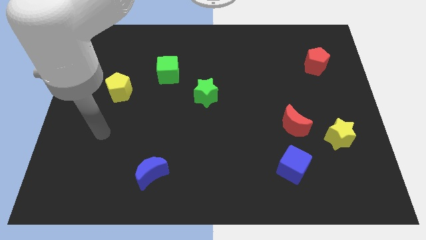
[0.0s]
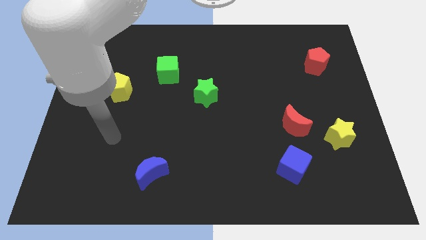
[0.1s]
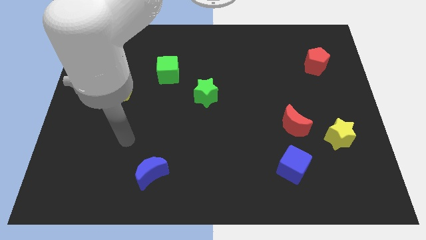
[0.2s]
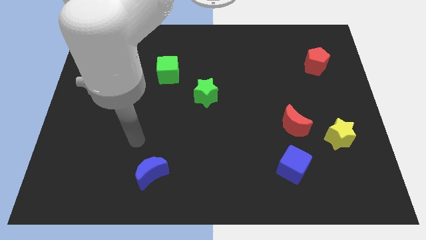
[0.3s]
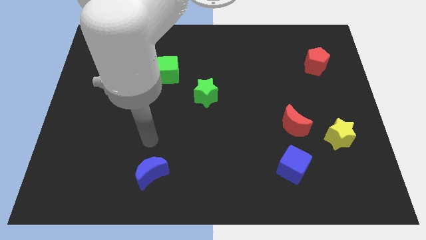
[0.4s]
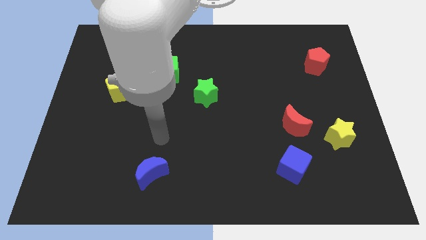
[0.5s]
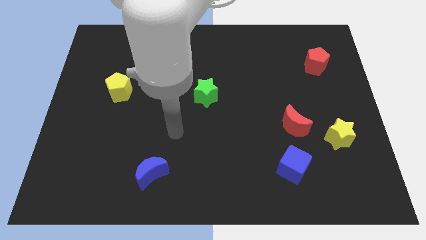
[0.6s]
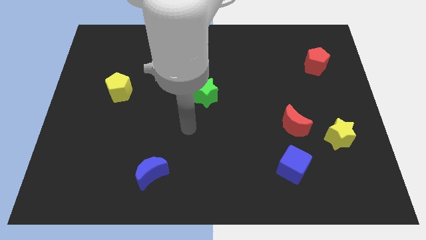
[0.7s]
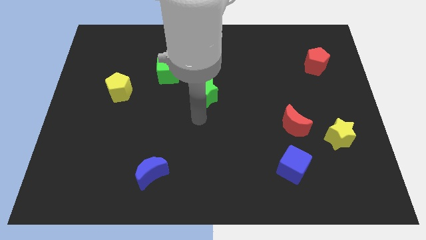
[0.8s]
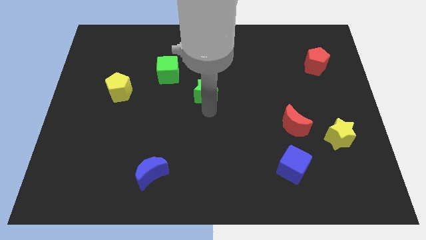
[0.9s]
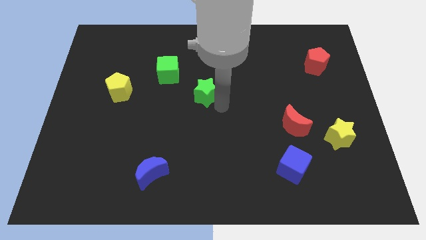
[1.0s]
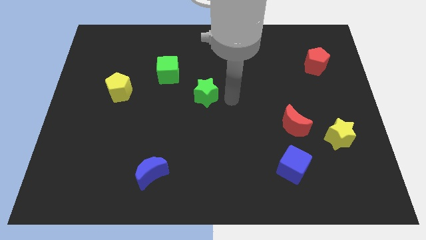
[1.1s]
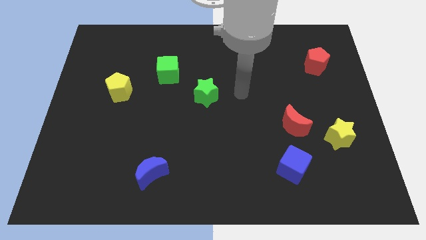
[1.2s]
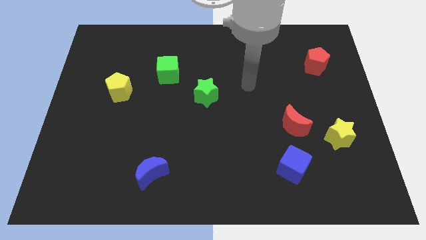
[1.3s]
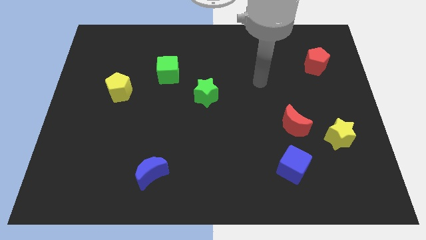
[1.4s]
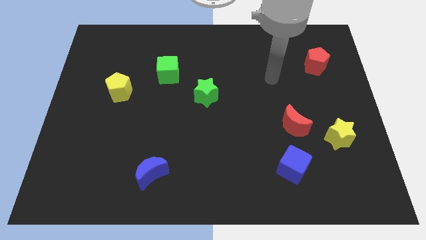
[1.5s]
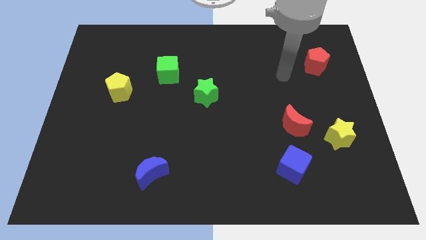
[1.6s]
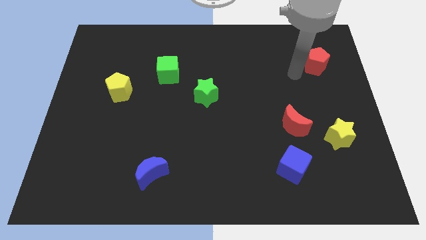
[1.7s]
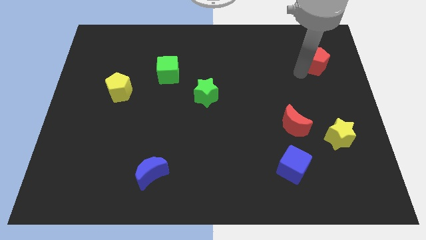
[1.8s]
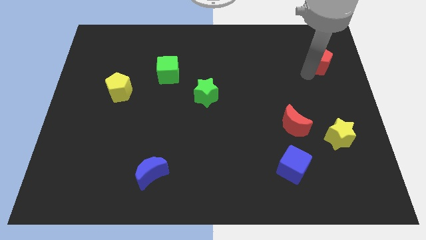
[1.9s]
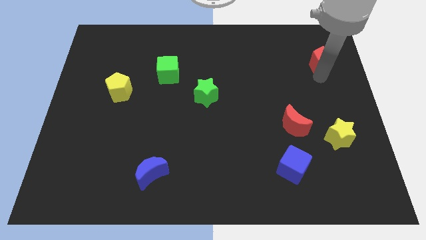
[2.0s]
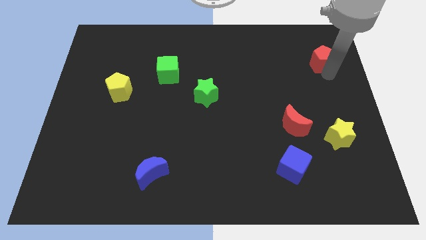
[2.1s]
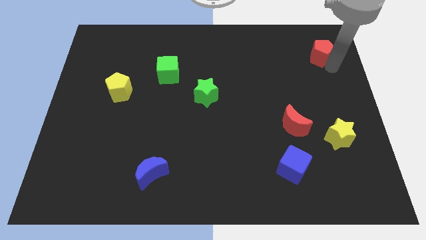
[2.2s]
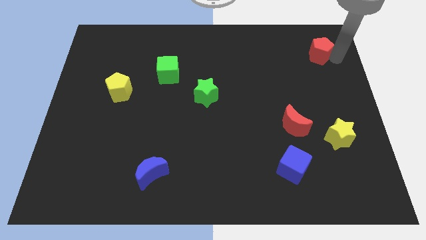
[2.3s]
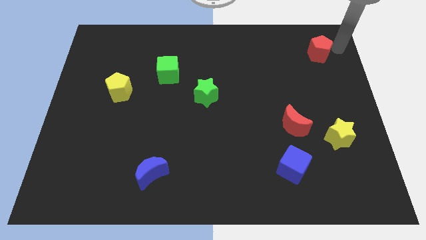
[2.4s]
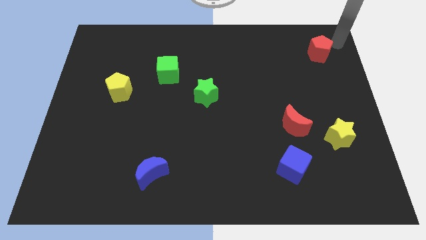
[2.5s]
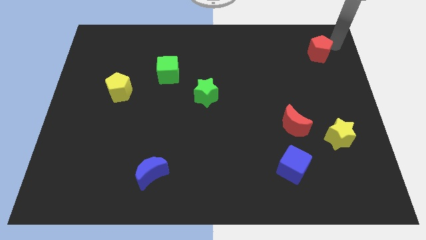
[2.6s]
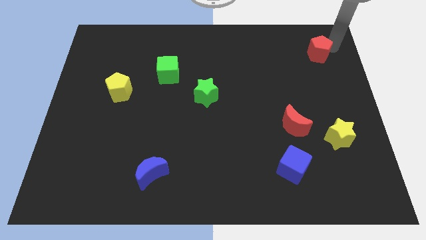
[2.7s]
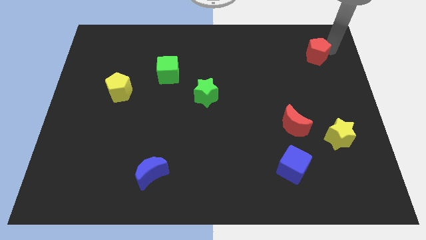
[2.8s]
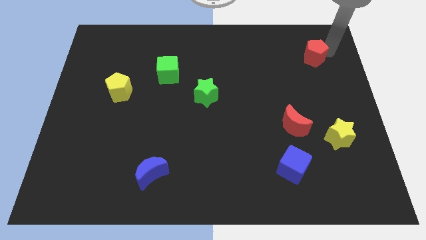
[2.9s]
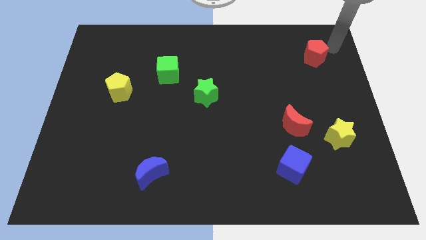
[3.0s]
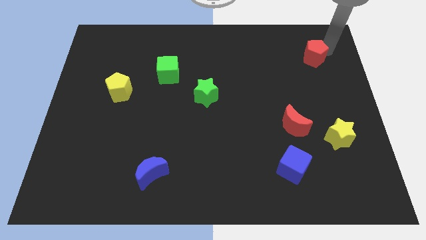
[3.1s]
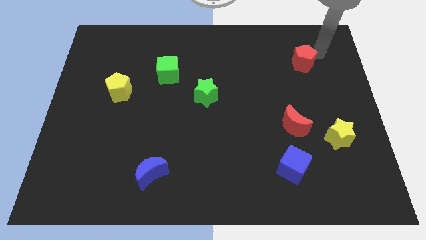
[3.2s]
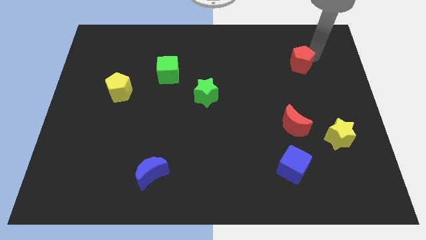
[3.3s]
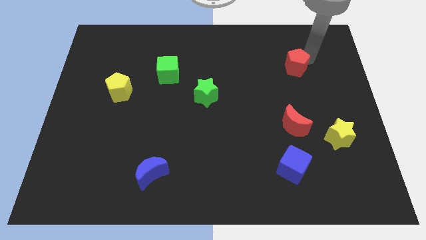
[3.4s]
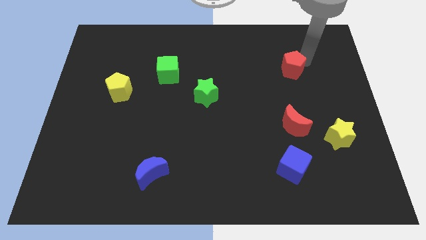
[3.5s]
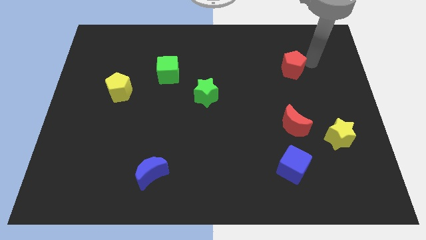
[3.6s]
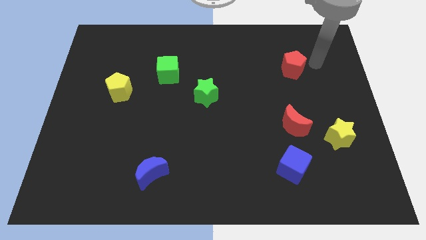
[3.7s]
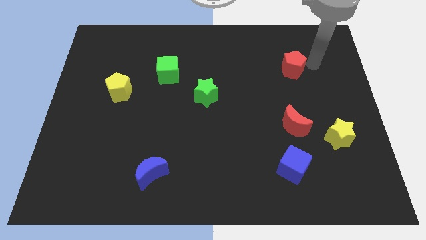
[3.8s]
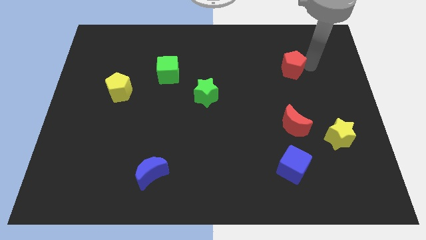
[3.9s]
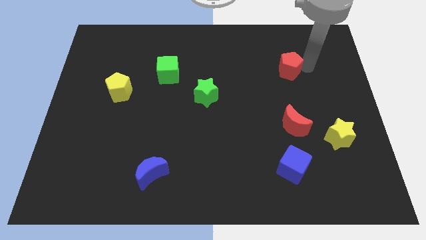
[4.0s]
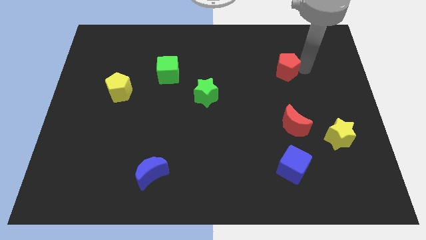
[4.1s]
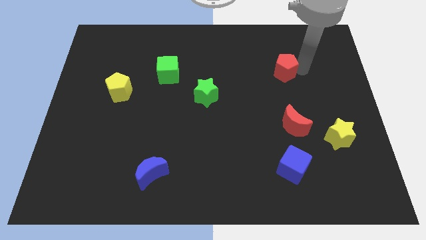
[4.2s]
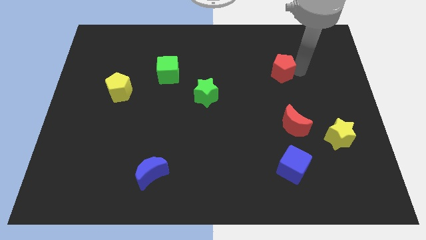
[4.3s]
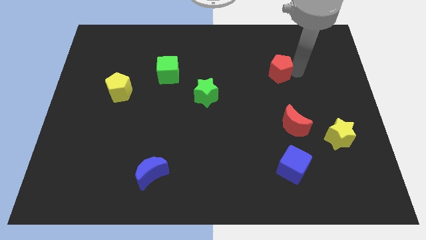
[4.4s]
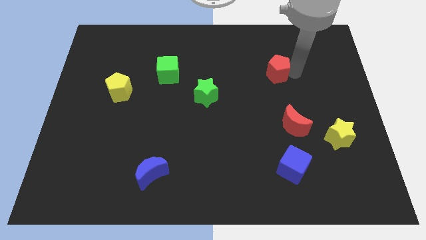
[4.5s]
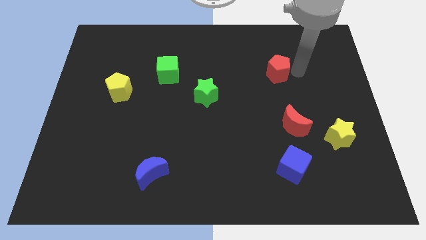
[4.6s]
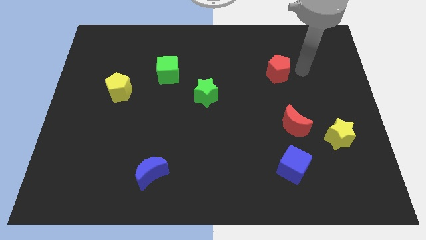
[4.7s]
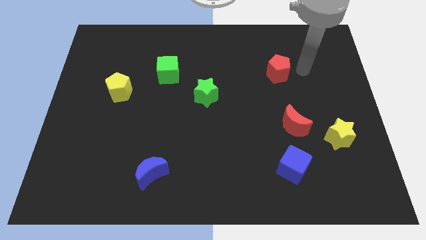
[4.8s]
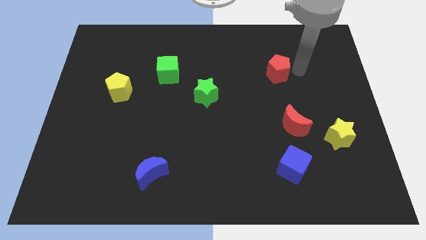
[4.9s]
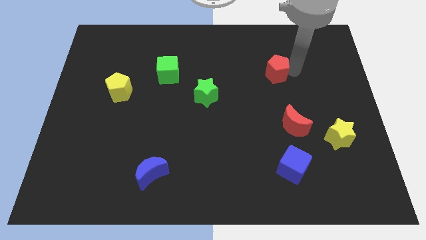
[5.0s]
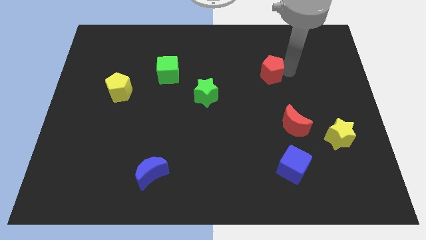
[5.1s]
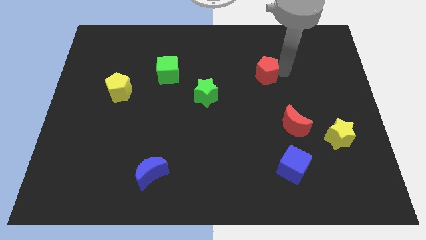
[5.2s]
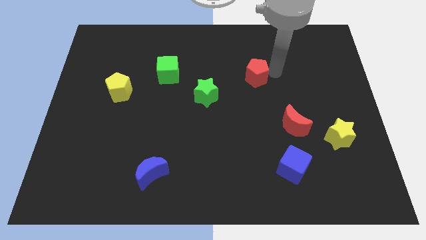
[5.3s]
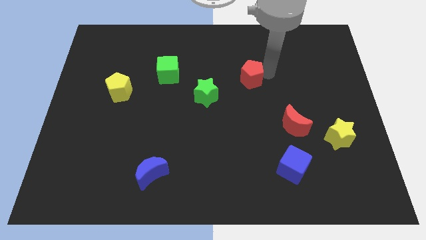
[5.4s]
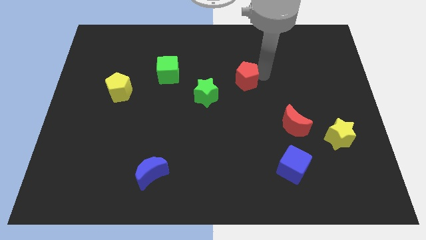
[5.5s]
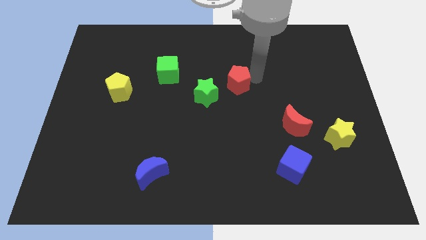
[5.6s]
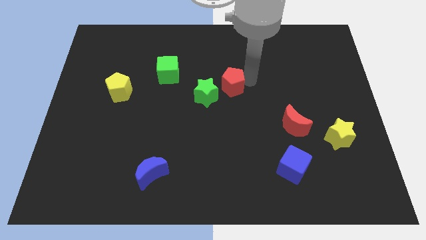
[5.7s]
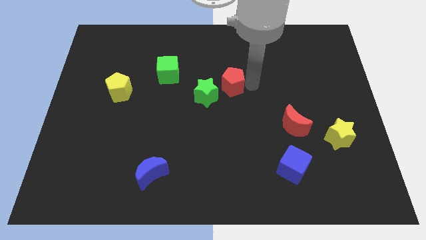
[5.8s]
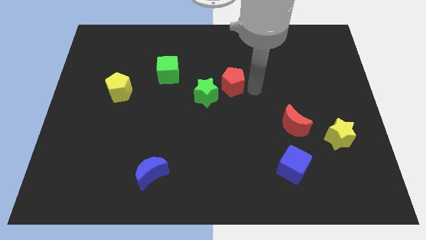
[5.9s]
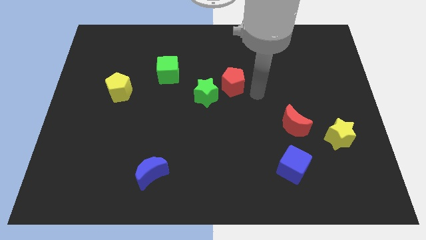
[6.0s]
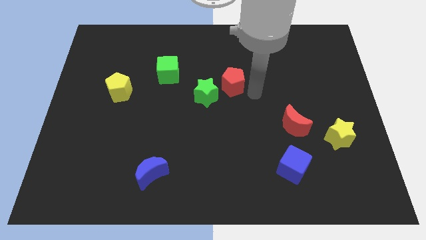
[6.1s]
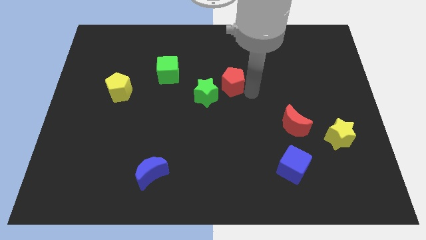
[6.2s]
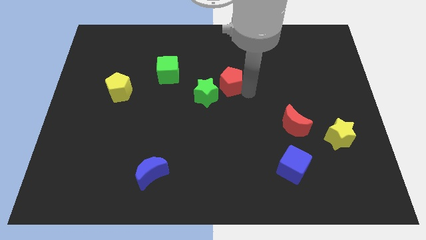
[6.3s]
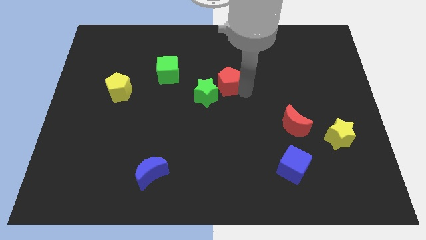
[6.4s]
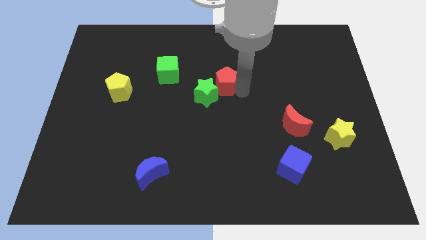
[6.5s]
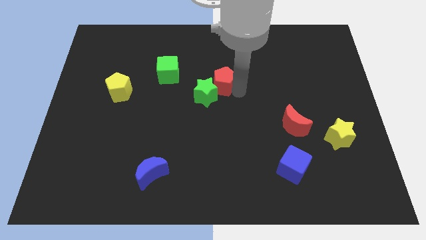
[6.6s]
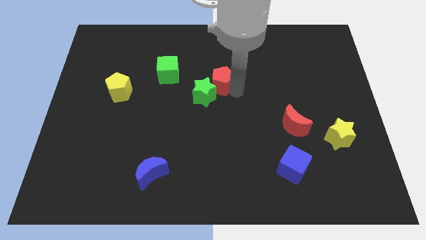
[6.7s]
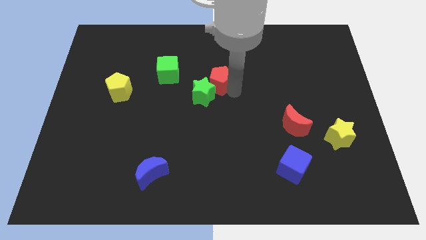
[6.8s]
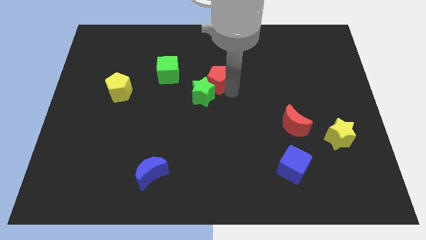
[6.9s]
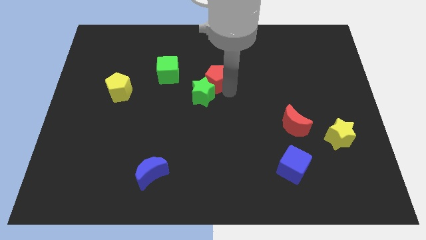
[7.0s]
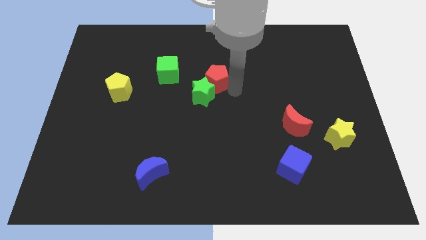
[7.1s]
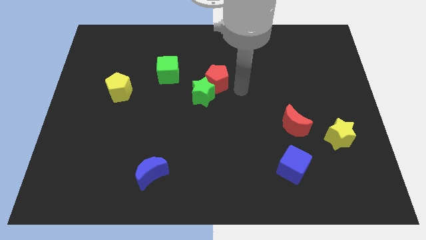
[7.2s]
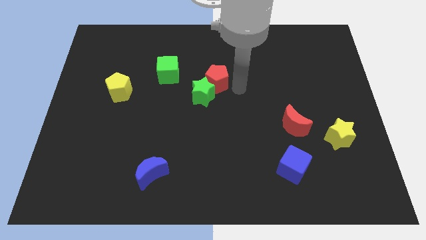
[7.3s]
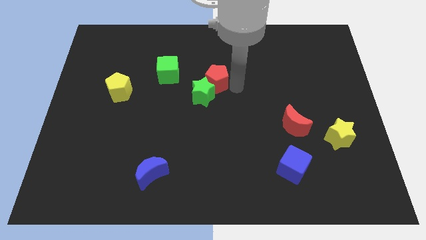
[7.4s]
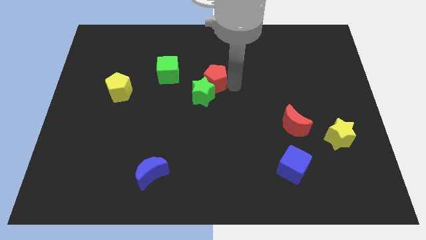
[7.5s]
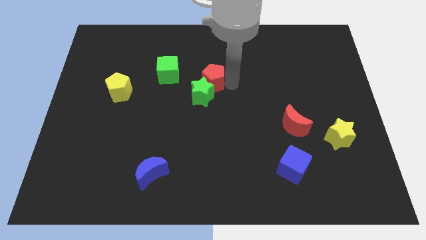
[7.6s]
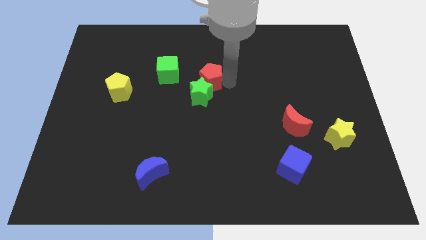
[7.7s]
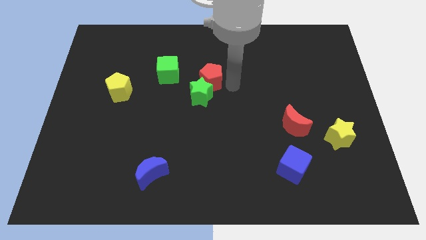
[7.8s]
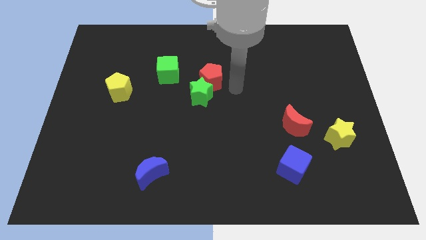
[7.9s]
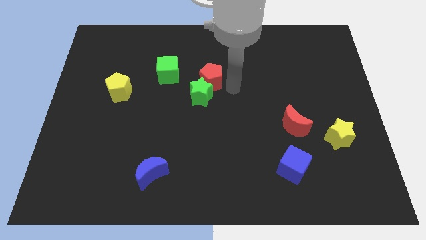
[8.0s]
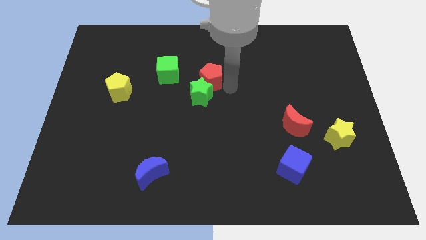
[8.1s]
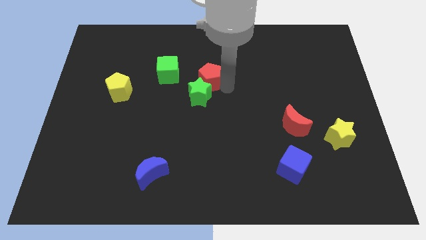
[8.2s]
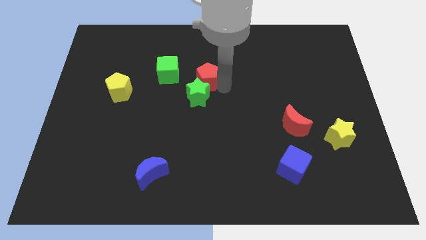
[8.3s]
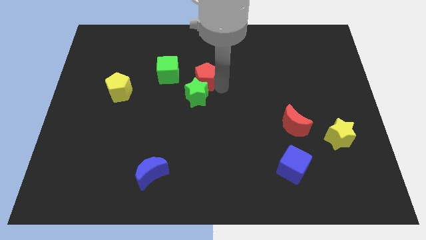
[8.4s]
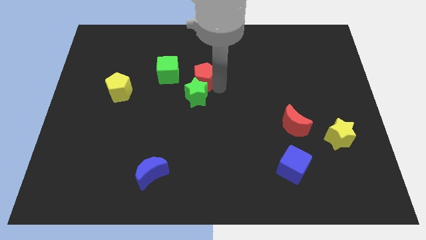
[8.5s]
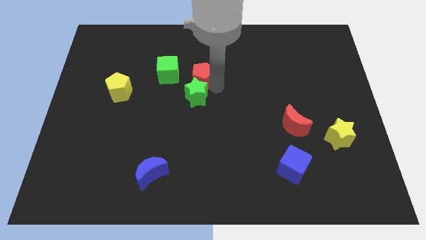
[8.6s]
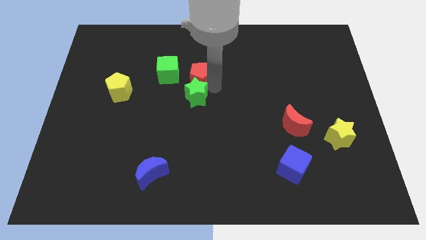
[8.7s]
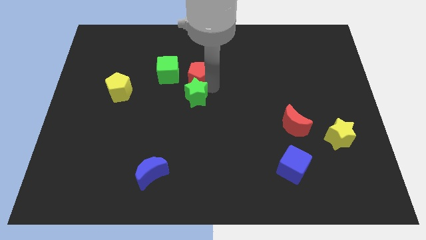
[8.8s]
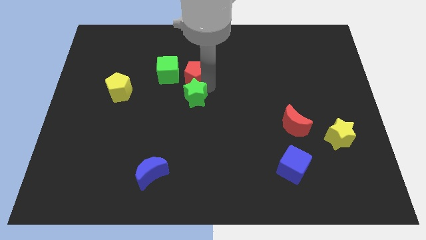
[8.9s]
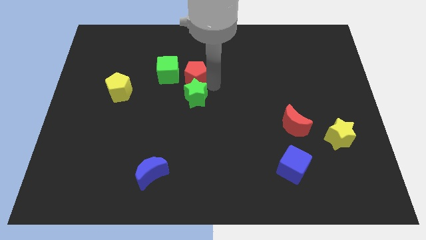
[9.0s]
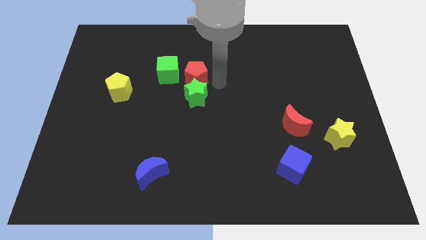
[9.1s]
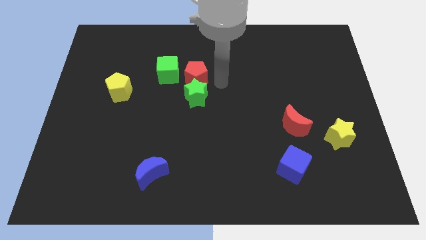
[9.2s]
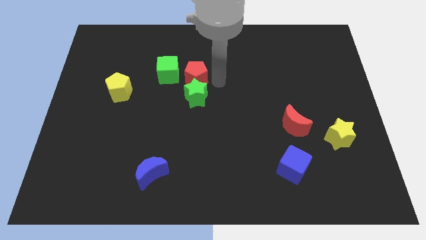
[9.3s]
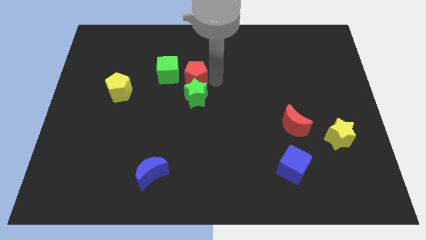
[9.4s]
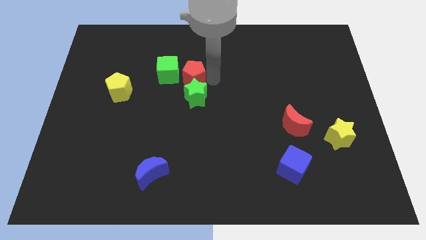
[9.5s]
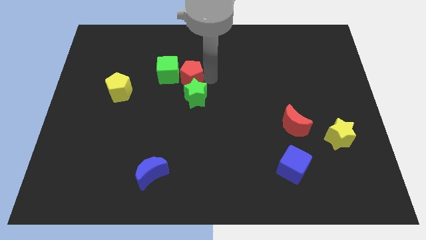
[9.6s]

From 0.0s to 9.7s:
put the red pentagon next to the green cube
